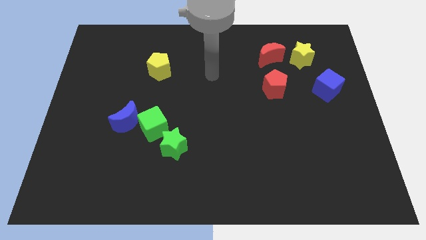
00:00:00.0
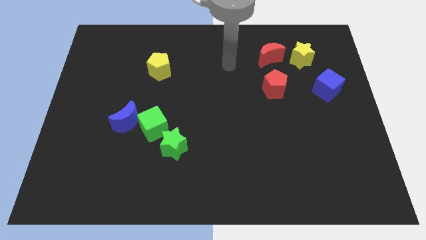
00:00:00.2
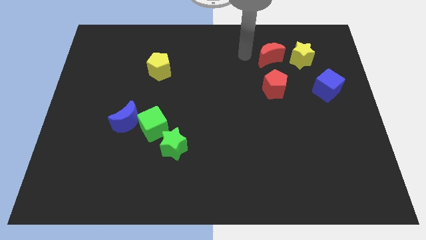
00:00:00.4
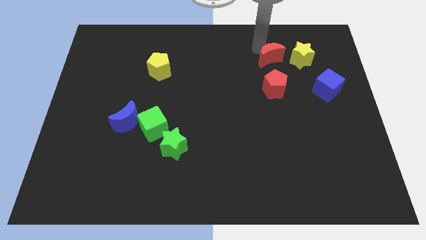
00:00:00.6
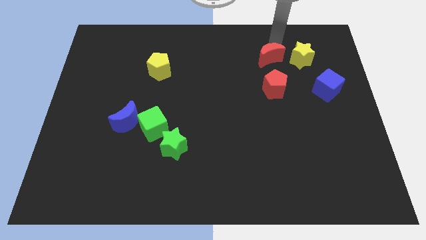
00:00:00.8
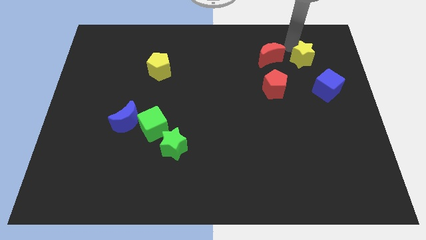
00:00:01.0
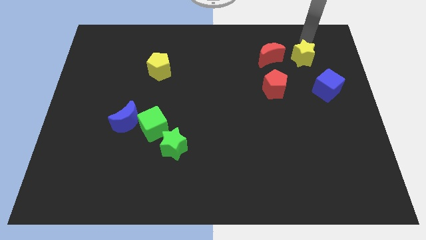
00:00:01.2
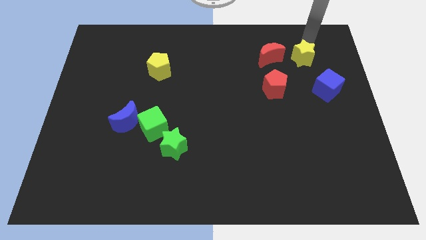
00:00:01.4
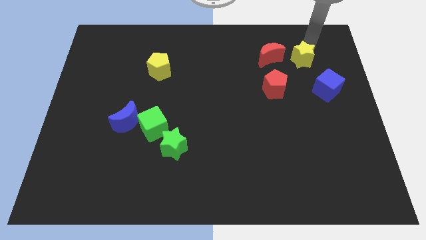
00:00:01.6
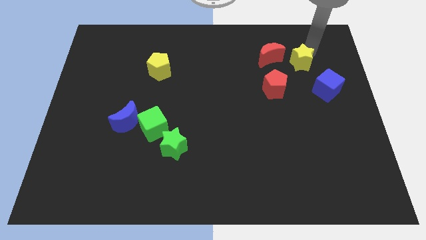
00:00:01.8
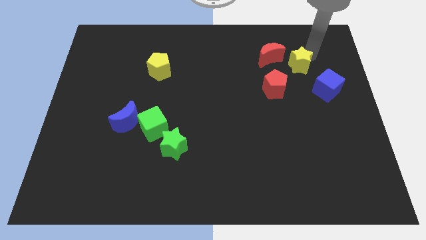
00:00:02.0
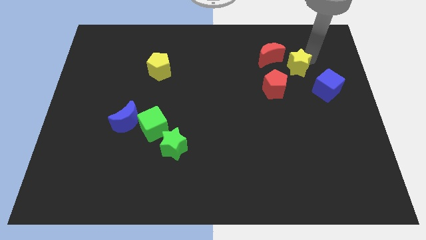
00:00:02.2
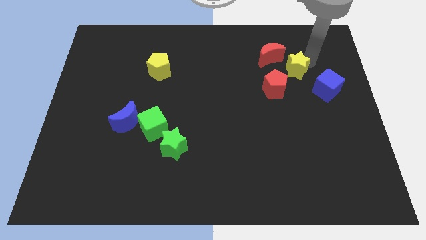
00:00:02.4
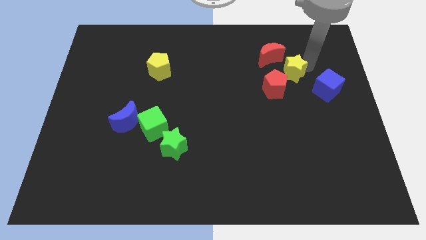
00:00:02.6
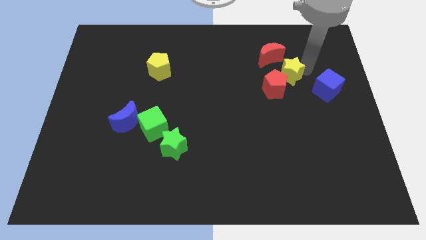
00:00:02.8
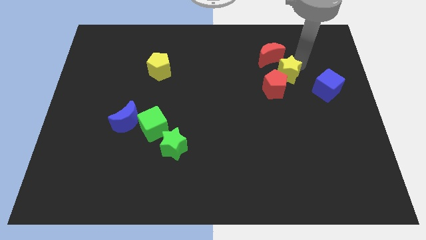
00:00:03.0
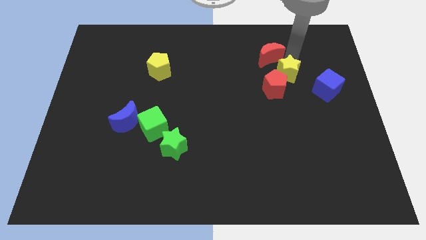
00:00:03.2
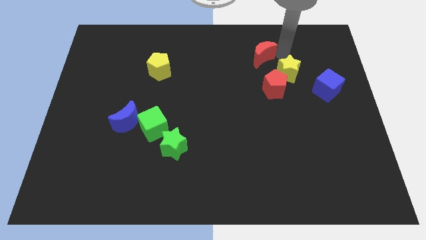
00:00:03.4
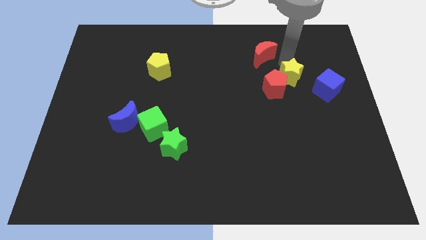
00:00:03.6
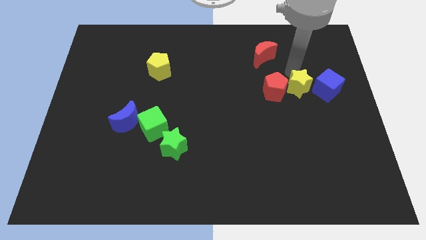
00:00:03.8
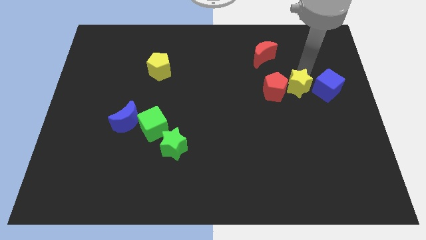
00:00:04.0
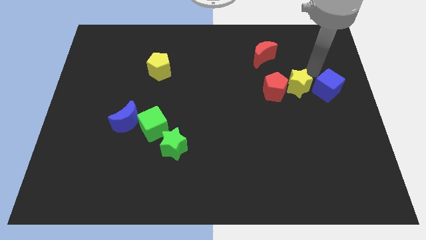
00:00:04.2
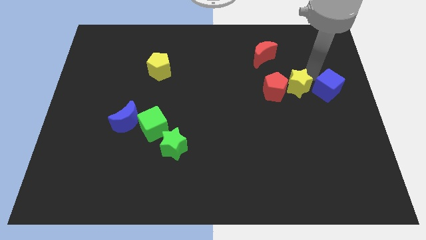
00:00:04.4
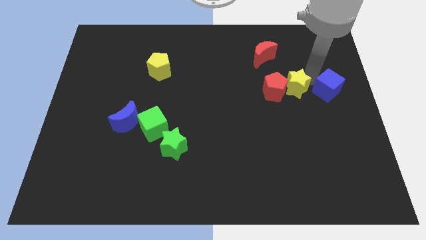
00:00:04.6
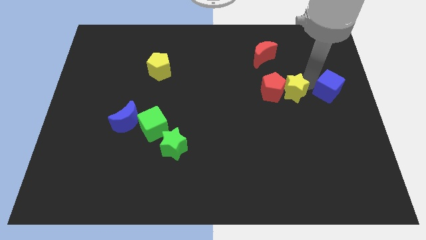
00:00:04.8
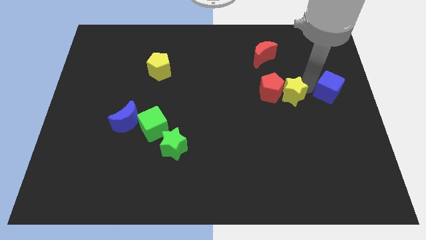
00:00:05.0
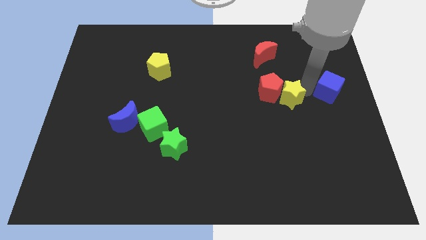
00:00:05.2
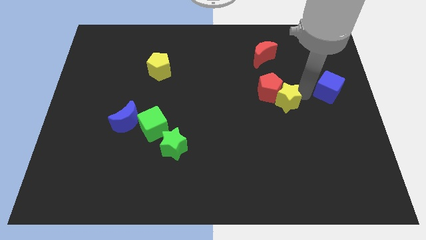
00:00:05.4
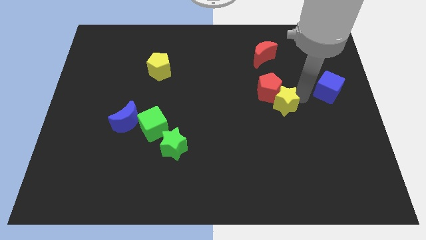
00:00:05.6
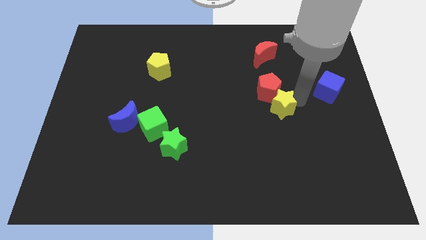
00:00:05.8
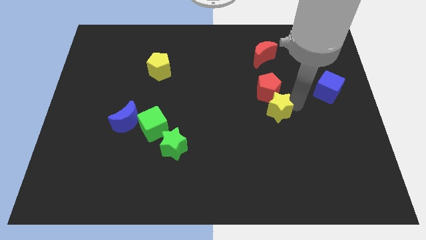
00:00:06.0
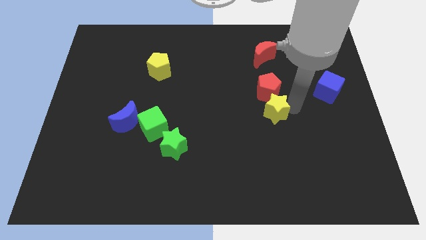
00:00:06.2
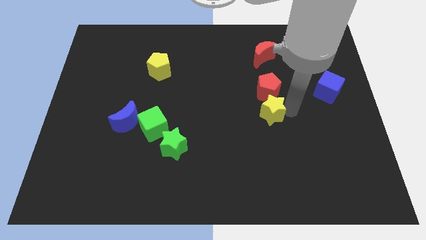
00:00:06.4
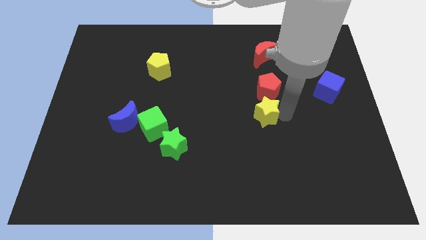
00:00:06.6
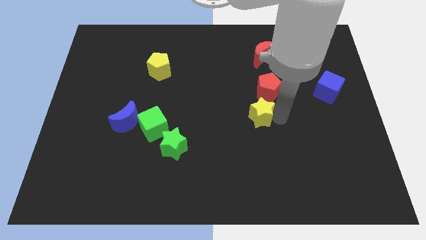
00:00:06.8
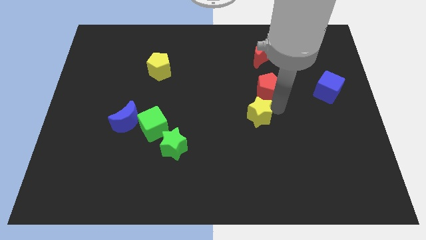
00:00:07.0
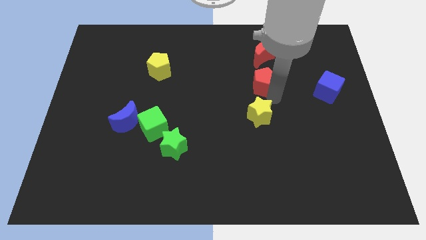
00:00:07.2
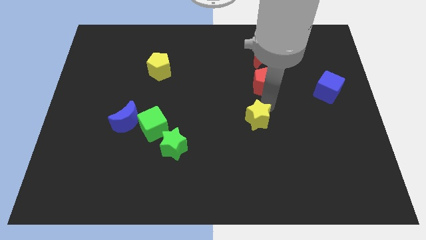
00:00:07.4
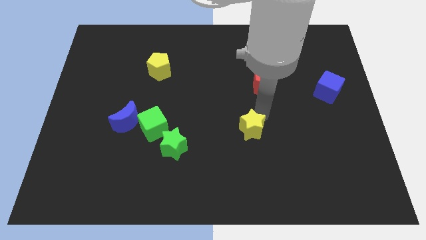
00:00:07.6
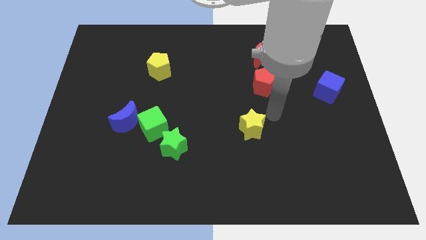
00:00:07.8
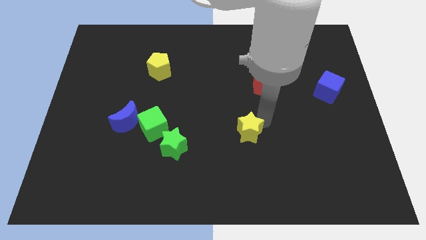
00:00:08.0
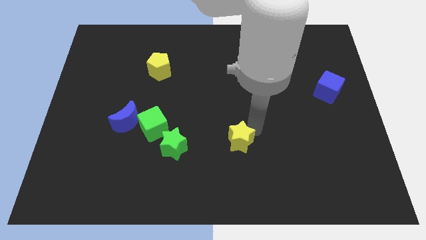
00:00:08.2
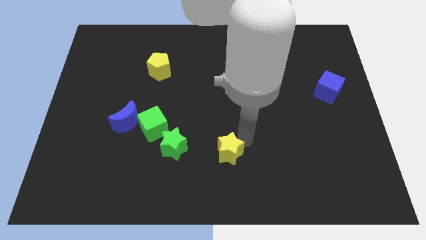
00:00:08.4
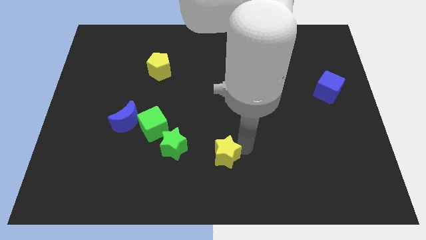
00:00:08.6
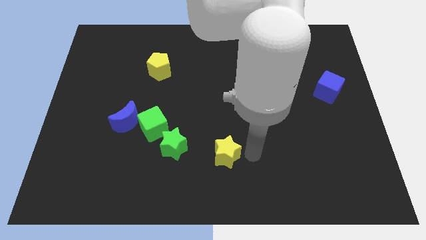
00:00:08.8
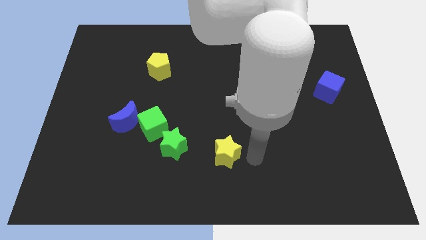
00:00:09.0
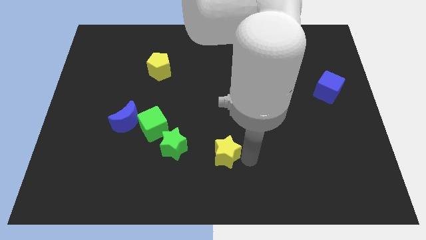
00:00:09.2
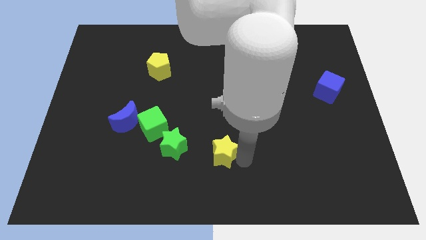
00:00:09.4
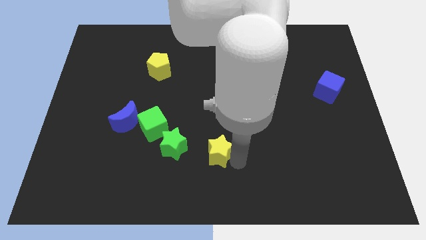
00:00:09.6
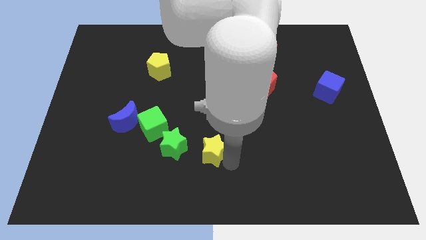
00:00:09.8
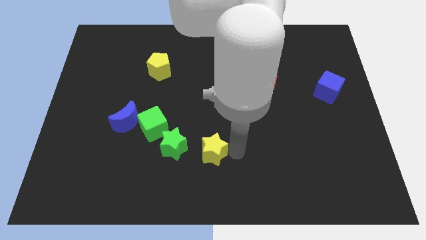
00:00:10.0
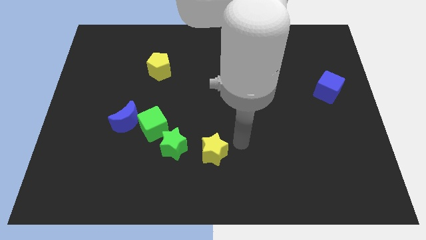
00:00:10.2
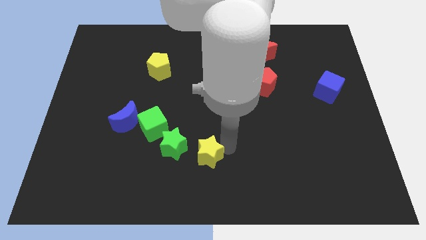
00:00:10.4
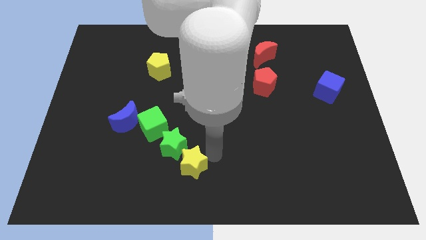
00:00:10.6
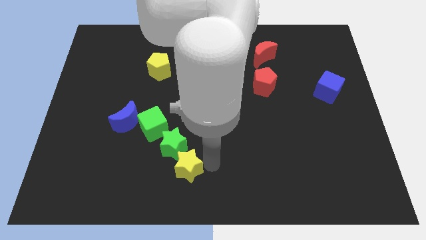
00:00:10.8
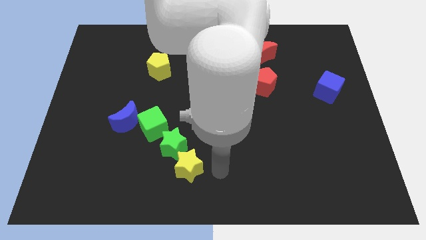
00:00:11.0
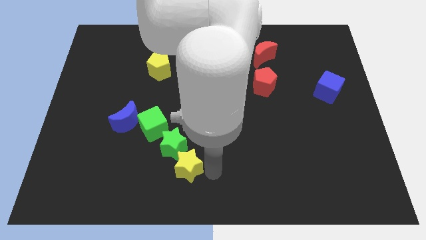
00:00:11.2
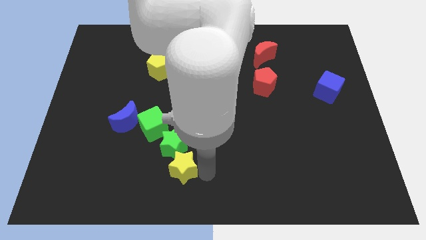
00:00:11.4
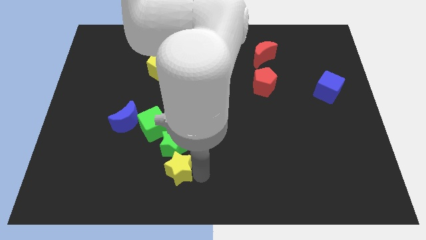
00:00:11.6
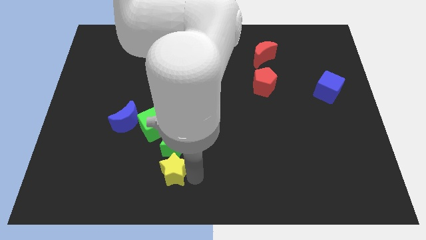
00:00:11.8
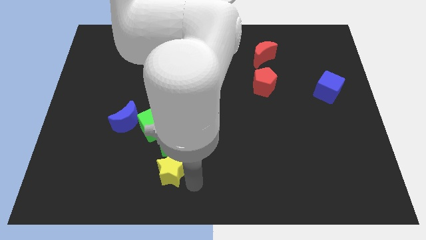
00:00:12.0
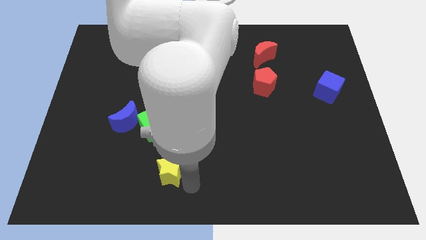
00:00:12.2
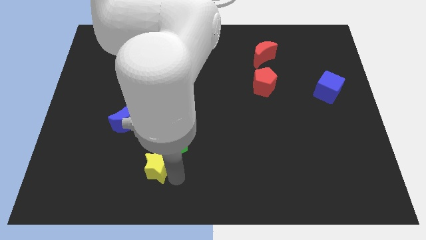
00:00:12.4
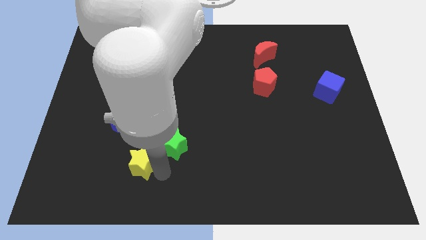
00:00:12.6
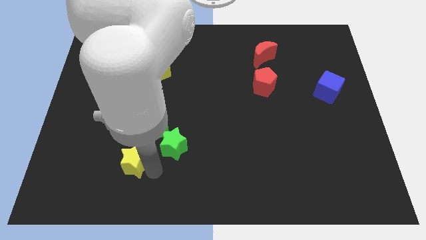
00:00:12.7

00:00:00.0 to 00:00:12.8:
push the yellow star to the bottom left side of the green cube
